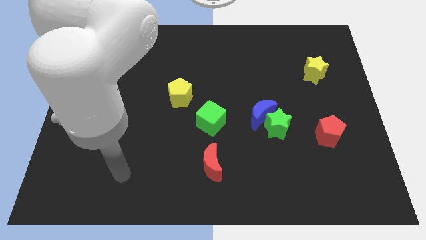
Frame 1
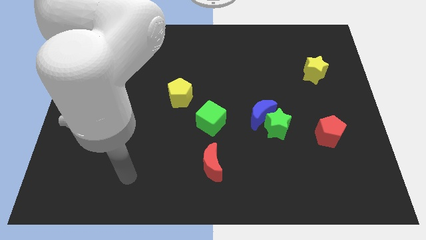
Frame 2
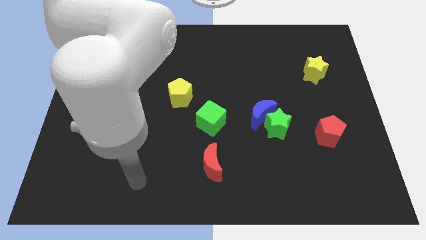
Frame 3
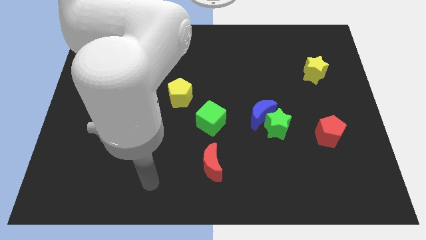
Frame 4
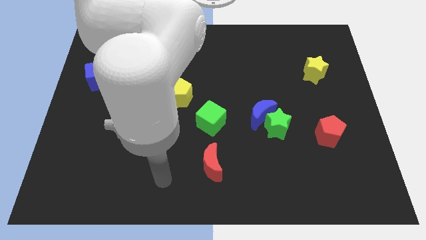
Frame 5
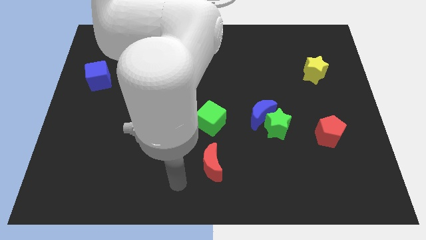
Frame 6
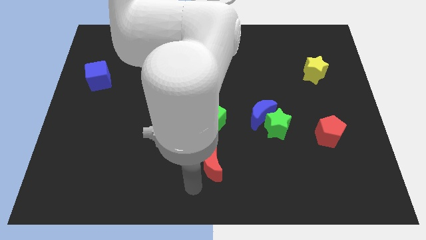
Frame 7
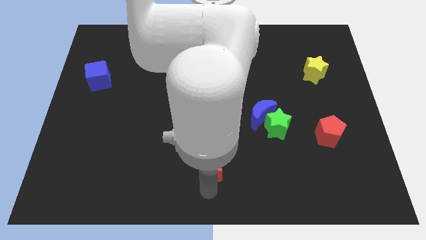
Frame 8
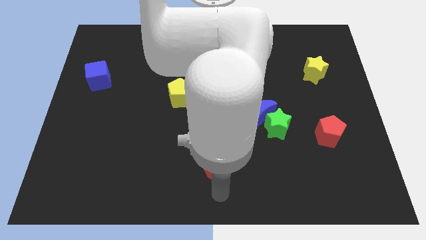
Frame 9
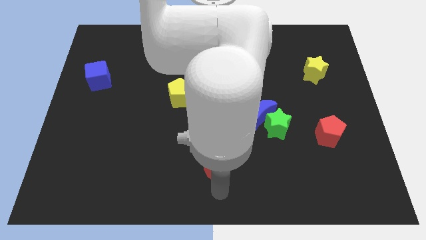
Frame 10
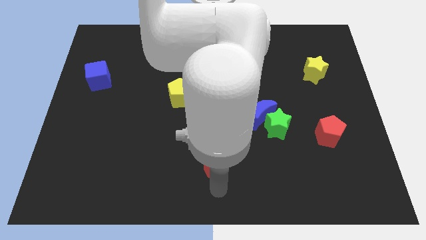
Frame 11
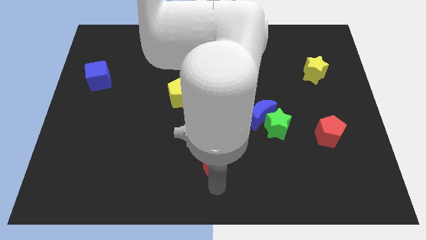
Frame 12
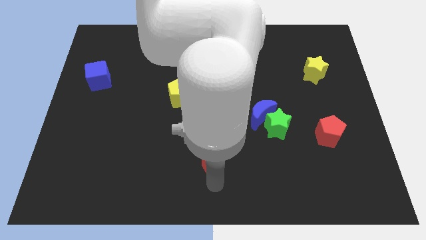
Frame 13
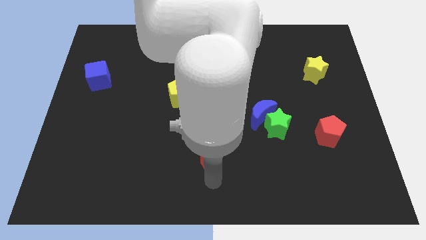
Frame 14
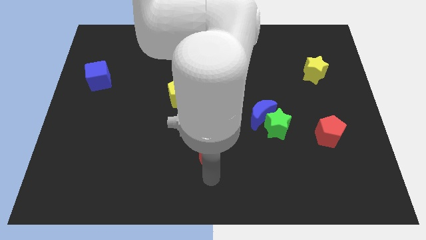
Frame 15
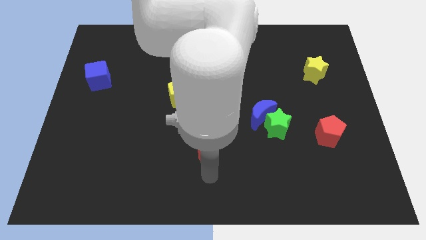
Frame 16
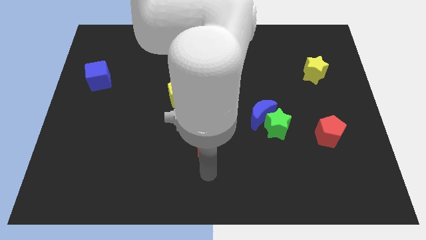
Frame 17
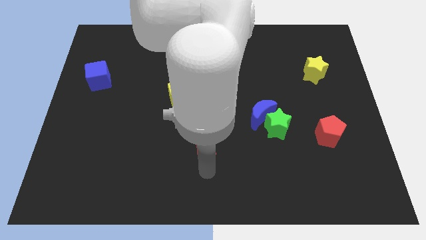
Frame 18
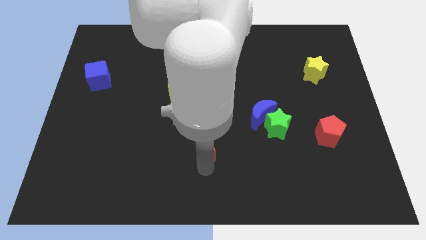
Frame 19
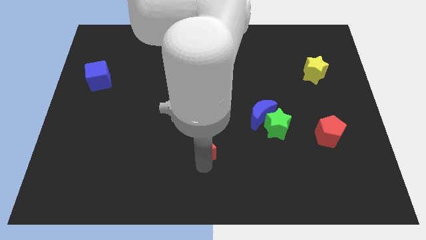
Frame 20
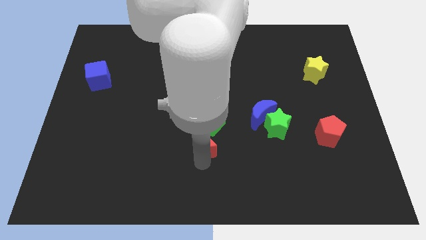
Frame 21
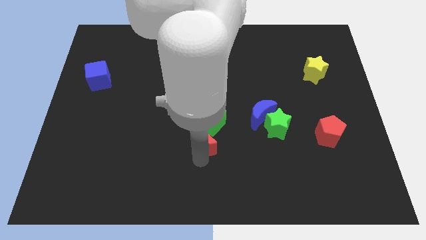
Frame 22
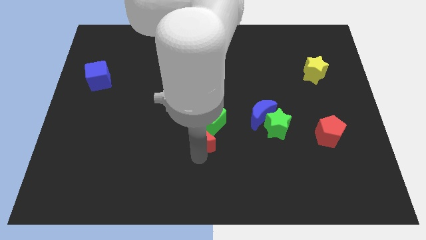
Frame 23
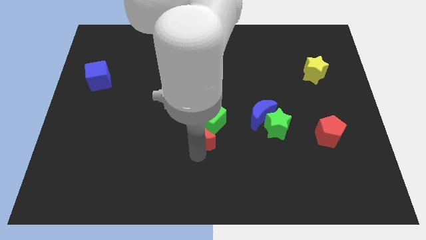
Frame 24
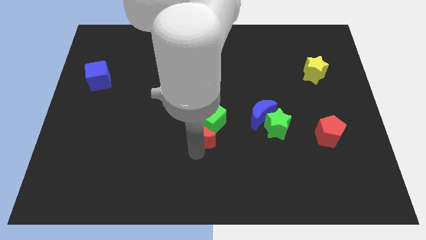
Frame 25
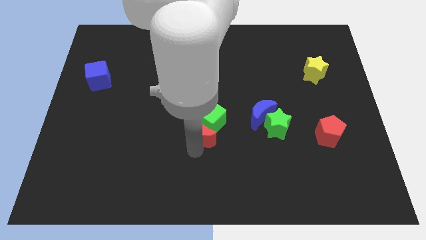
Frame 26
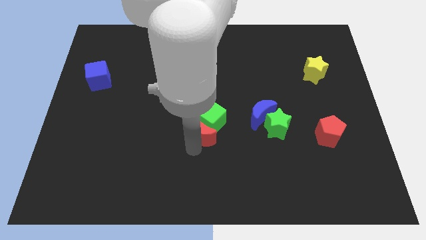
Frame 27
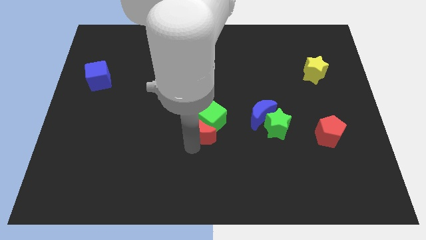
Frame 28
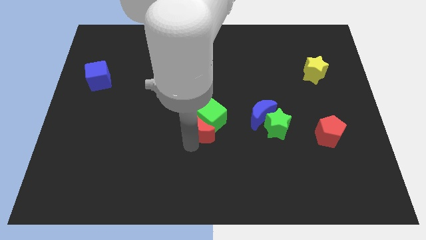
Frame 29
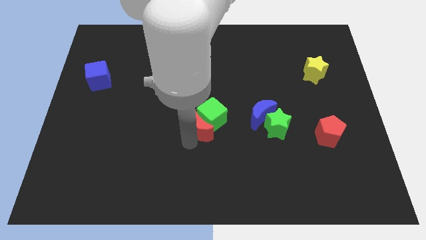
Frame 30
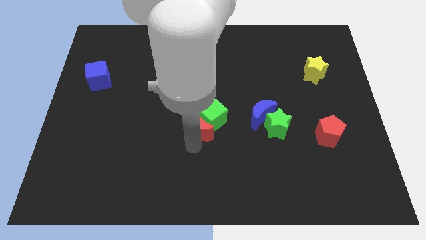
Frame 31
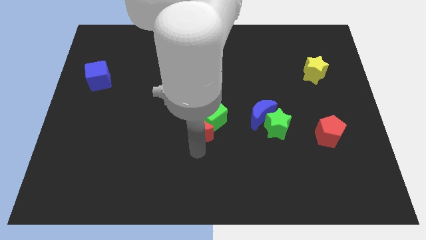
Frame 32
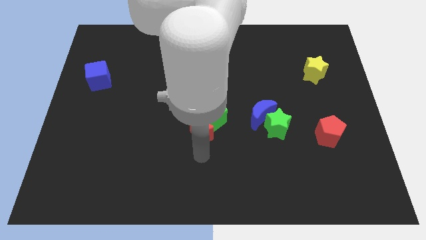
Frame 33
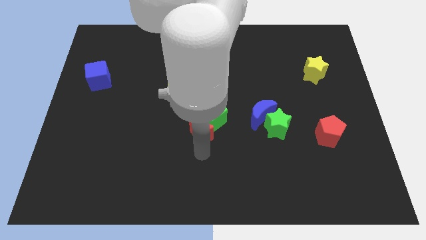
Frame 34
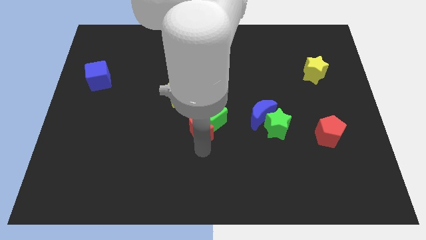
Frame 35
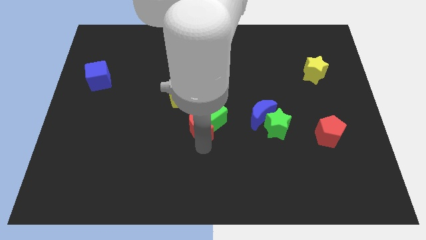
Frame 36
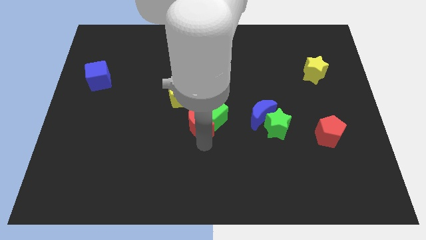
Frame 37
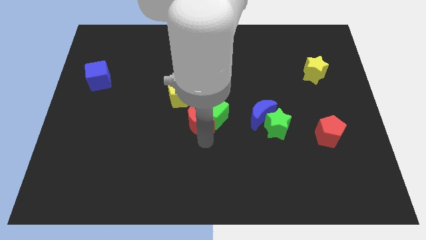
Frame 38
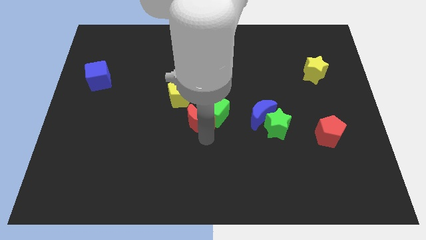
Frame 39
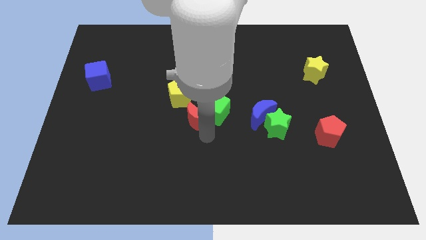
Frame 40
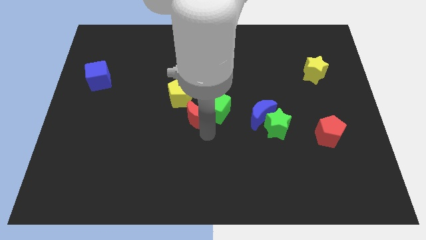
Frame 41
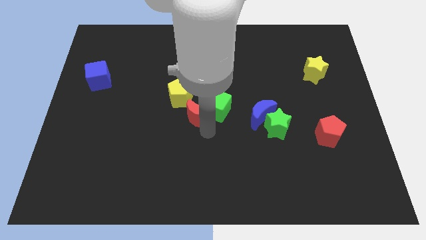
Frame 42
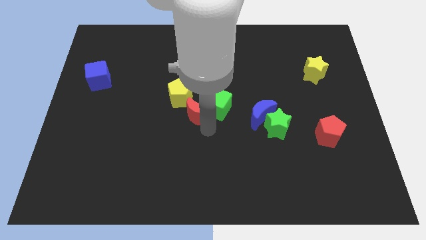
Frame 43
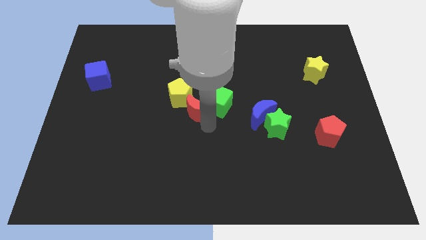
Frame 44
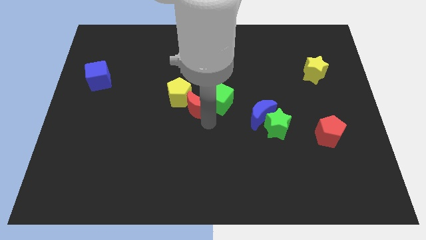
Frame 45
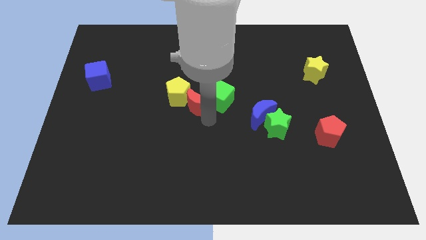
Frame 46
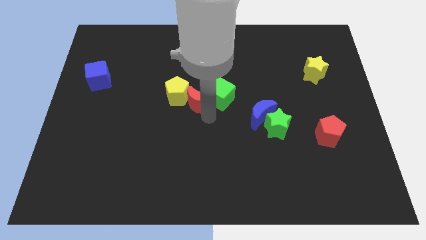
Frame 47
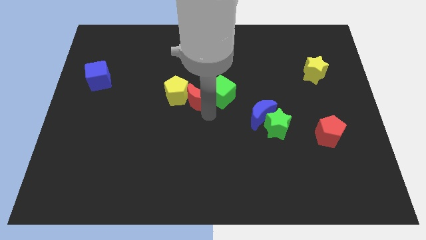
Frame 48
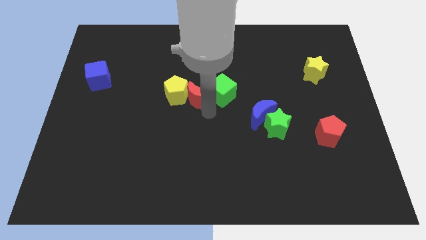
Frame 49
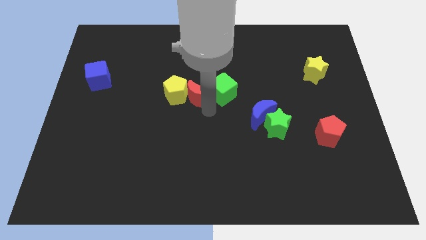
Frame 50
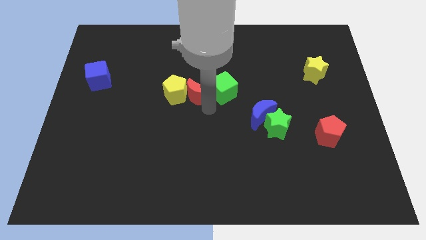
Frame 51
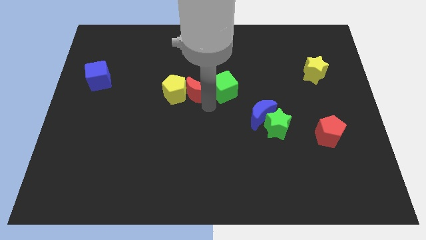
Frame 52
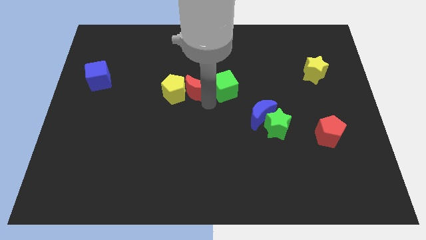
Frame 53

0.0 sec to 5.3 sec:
move the red moon upwards

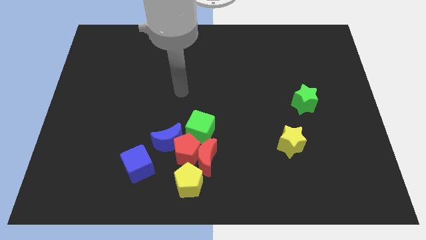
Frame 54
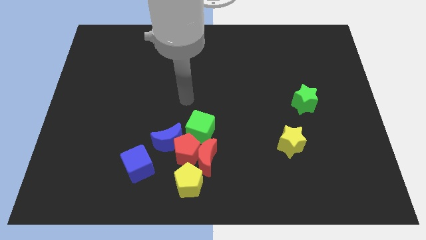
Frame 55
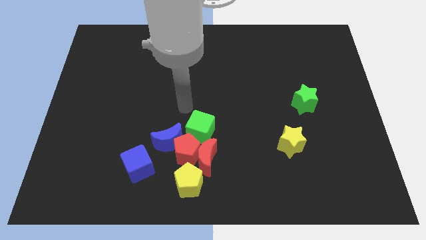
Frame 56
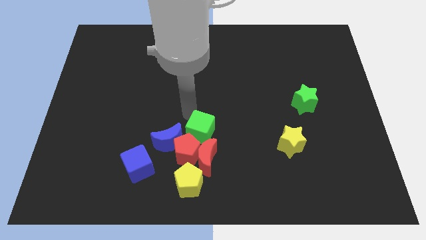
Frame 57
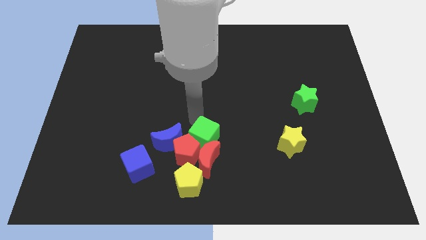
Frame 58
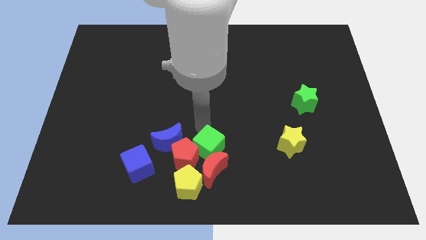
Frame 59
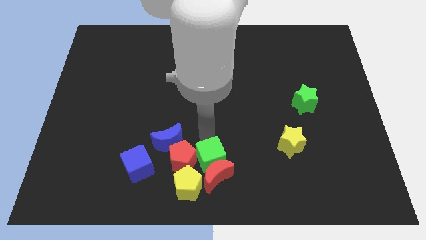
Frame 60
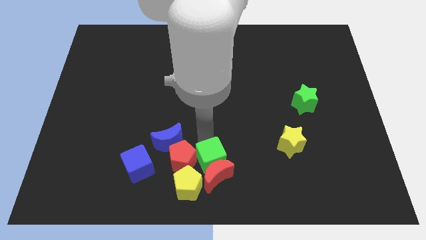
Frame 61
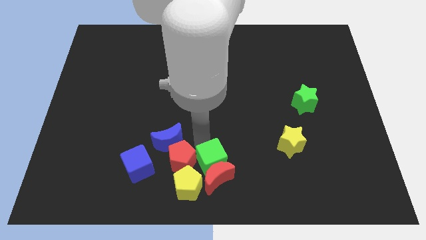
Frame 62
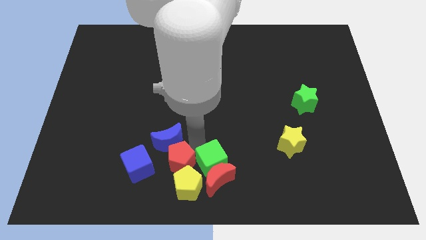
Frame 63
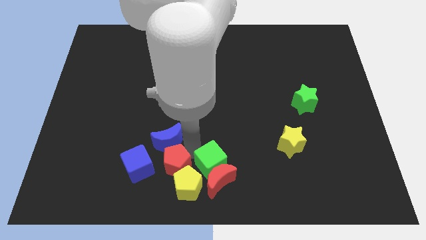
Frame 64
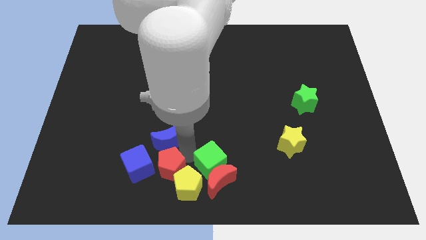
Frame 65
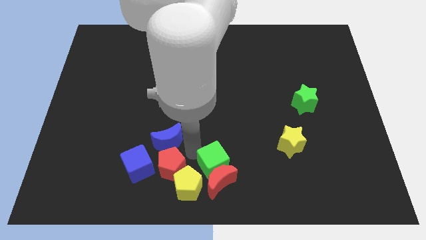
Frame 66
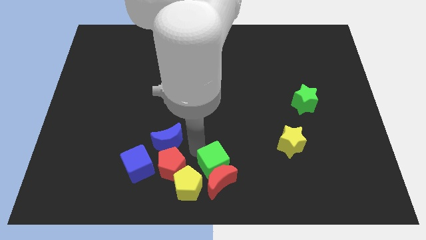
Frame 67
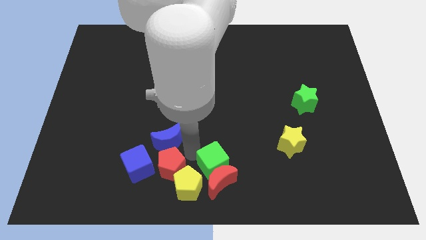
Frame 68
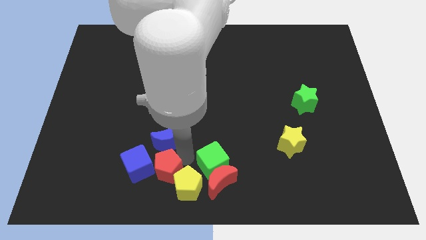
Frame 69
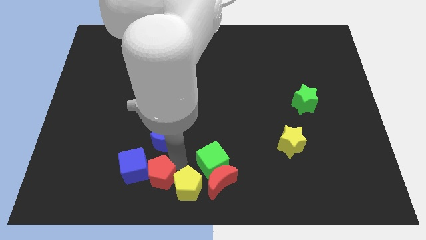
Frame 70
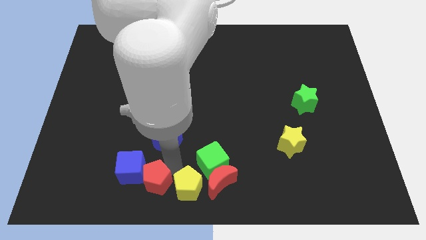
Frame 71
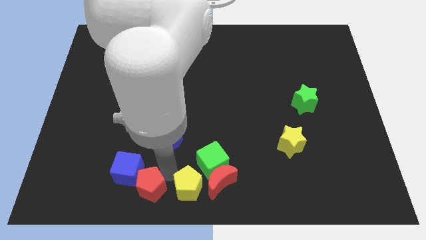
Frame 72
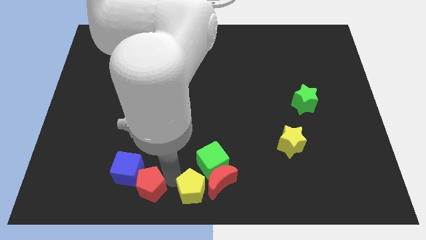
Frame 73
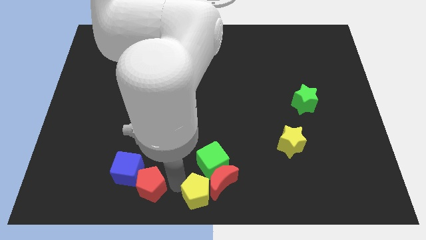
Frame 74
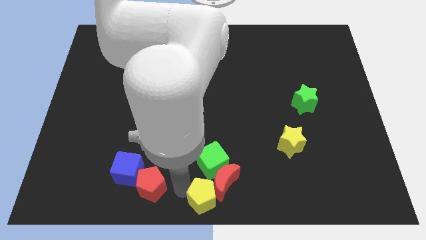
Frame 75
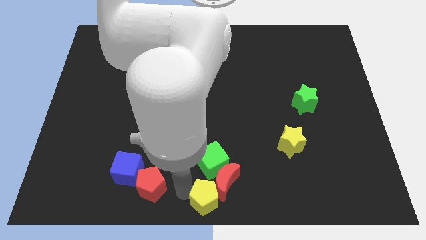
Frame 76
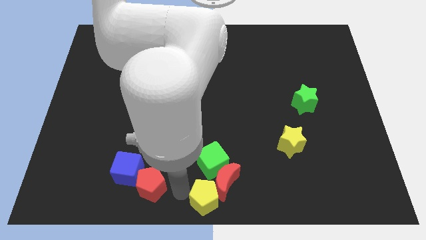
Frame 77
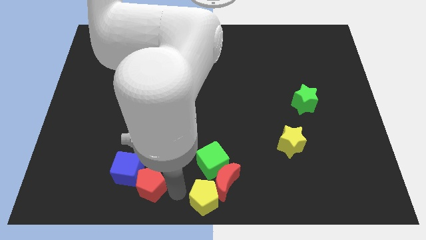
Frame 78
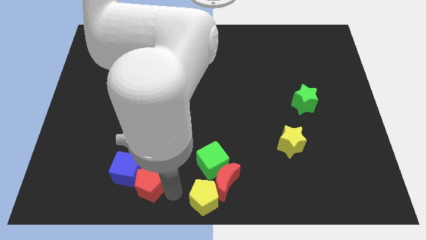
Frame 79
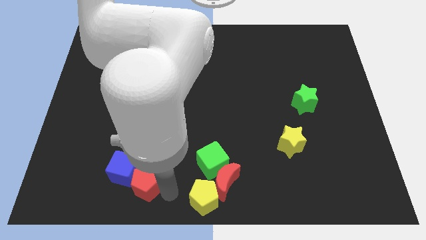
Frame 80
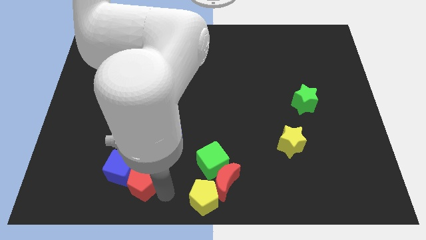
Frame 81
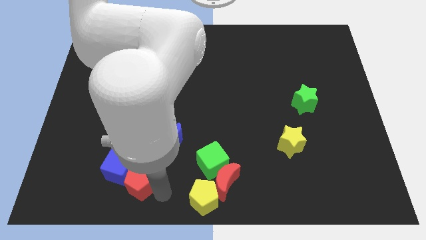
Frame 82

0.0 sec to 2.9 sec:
slide the red pentagon left slightly
